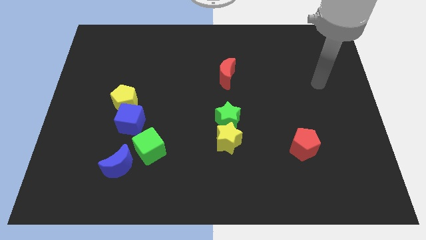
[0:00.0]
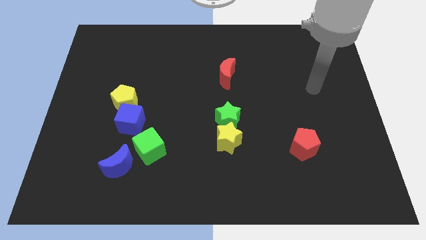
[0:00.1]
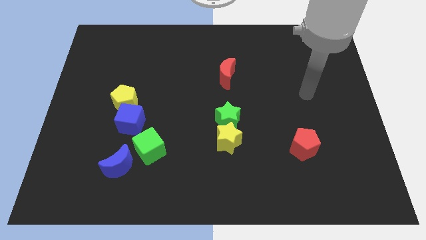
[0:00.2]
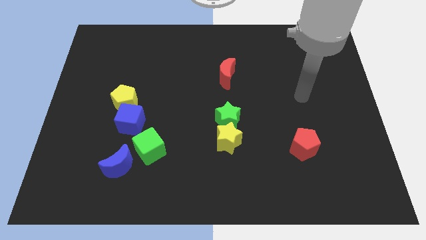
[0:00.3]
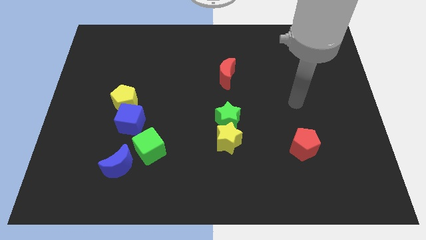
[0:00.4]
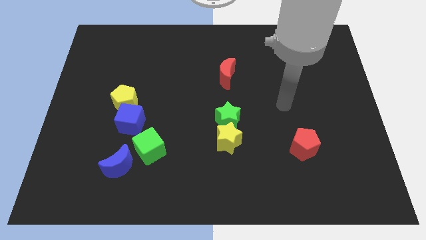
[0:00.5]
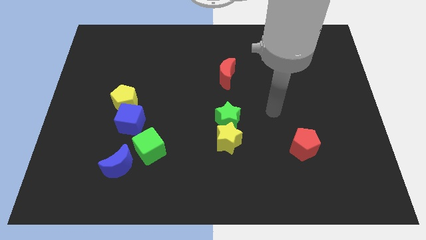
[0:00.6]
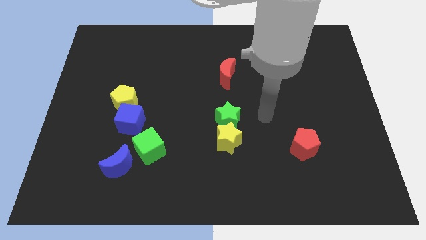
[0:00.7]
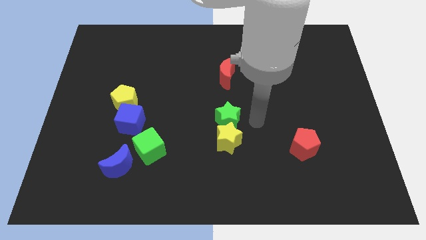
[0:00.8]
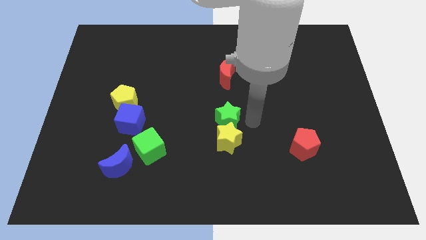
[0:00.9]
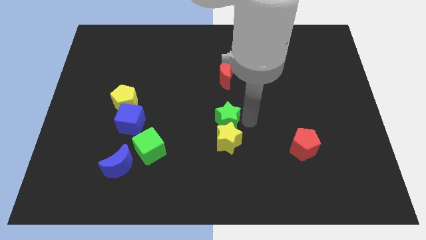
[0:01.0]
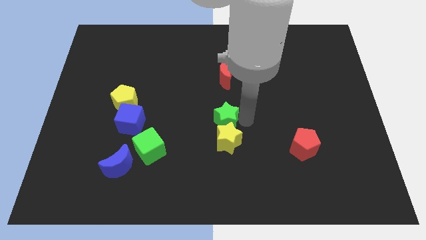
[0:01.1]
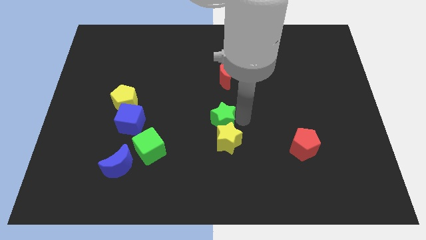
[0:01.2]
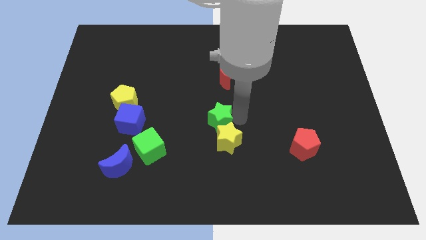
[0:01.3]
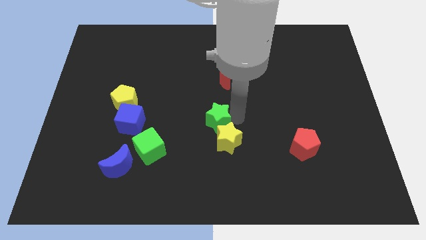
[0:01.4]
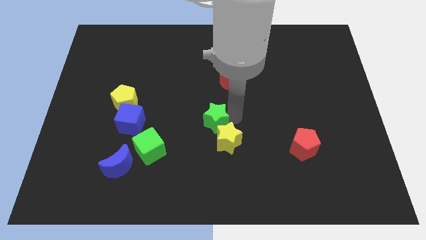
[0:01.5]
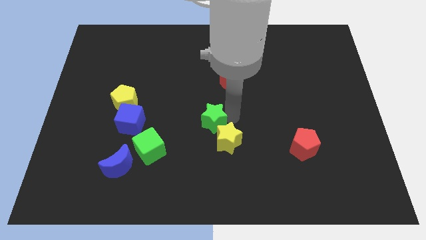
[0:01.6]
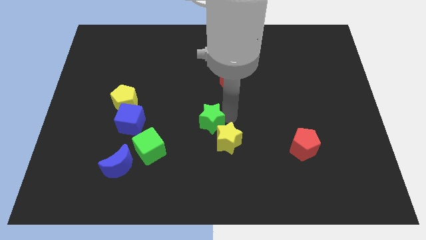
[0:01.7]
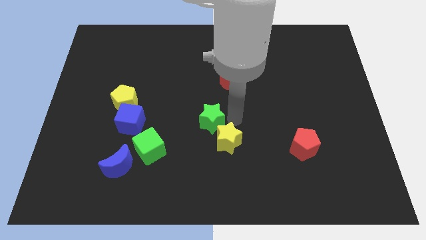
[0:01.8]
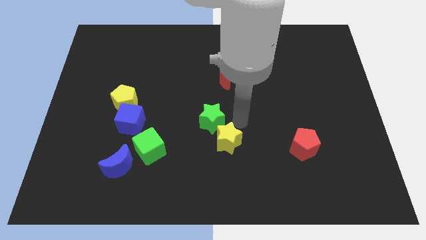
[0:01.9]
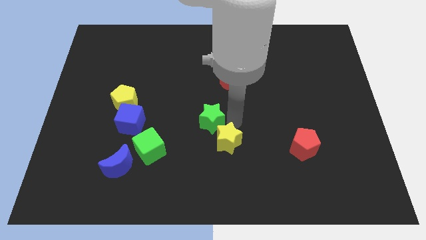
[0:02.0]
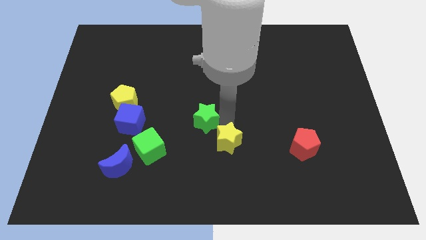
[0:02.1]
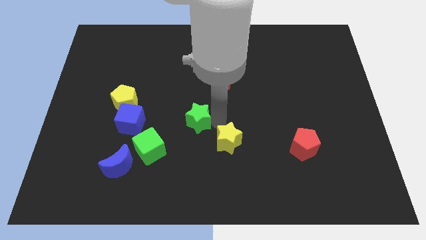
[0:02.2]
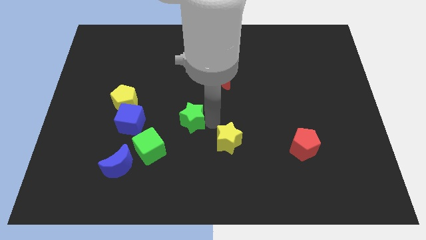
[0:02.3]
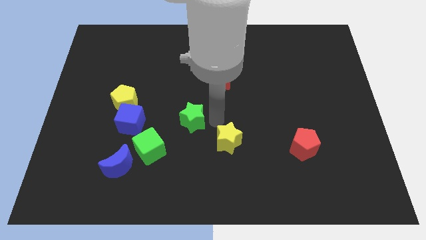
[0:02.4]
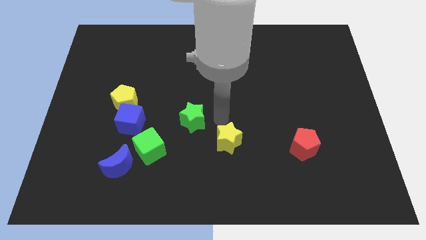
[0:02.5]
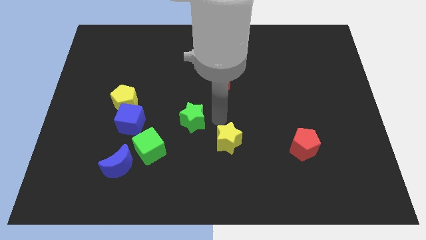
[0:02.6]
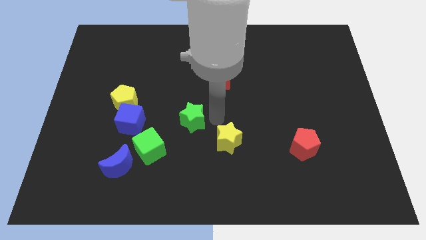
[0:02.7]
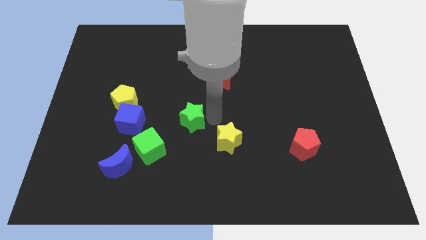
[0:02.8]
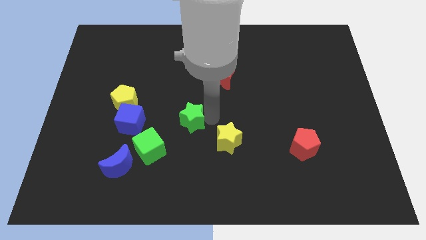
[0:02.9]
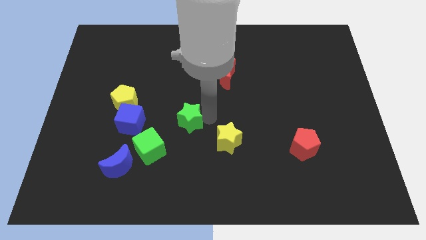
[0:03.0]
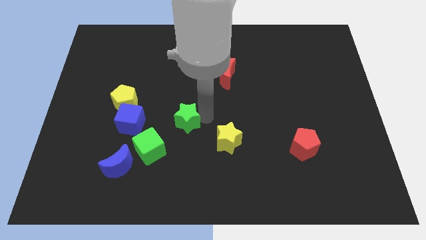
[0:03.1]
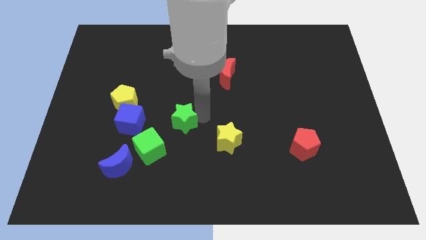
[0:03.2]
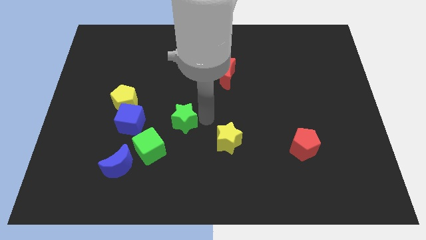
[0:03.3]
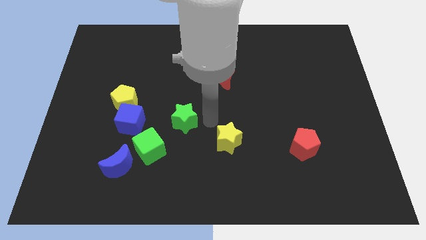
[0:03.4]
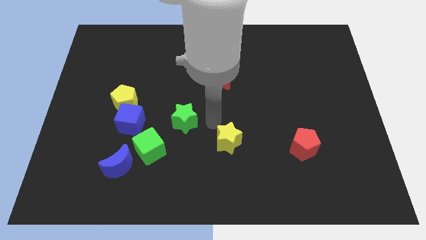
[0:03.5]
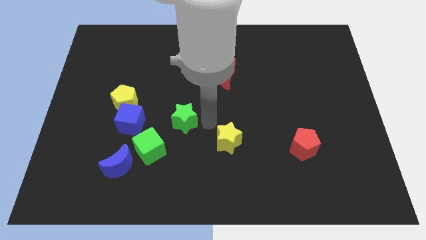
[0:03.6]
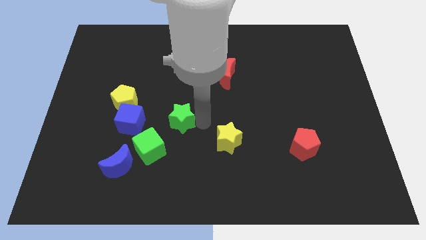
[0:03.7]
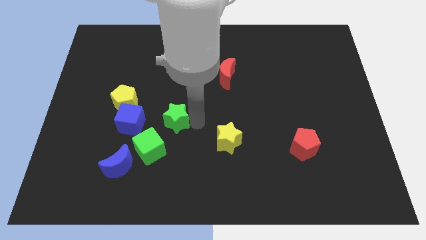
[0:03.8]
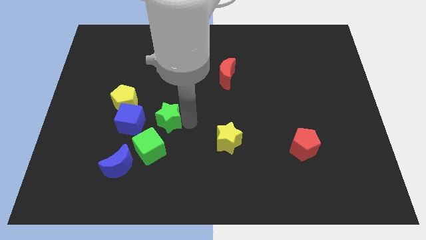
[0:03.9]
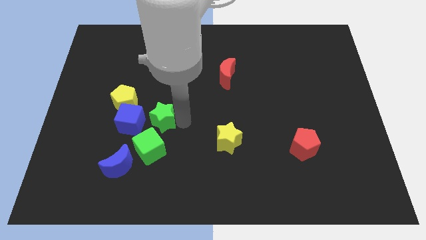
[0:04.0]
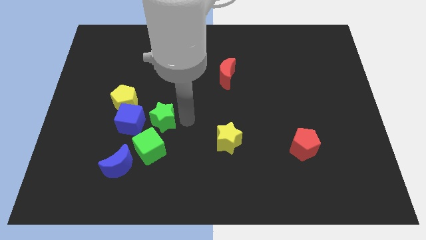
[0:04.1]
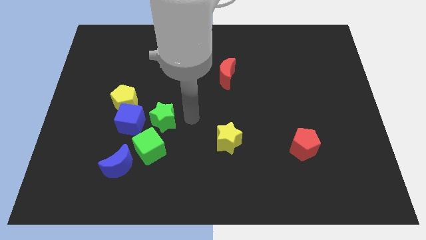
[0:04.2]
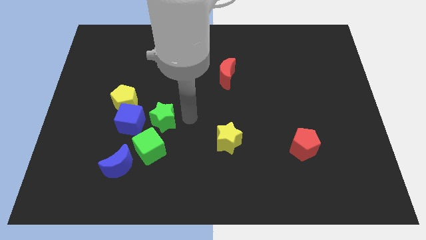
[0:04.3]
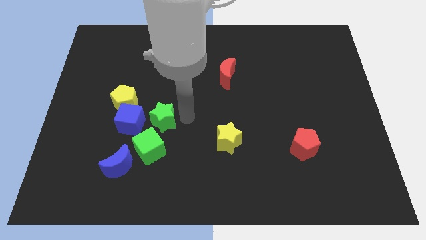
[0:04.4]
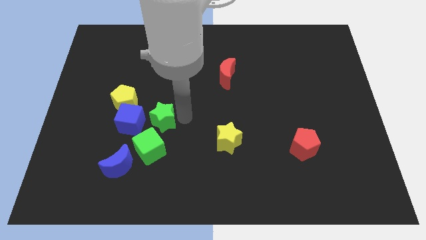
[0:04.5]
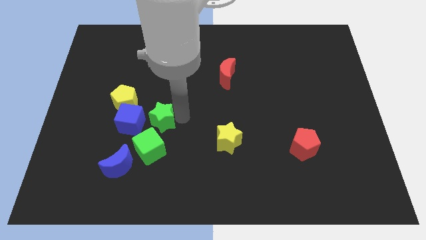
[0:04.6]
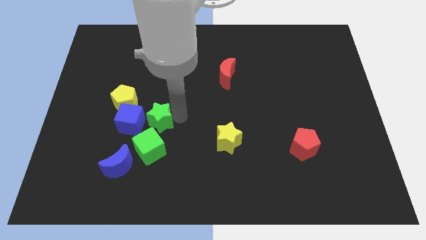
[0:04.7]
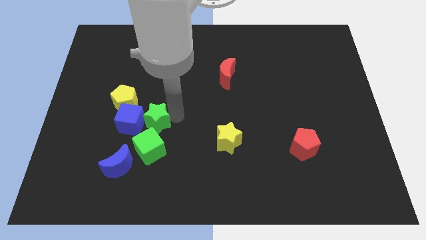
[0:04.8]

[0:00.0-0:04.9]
push the green star close to the blue cube

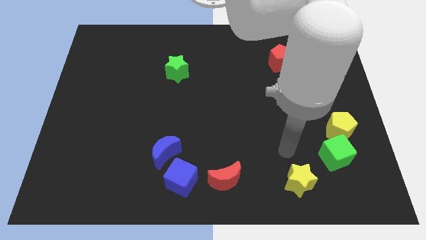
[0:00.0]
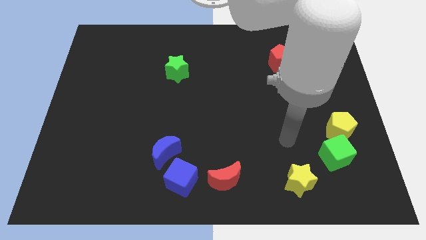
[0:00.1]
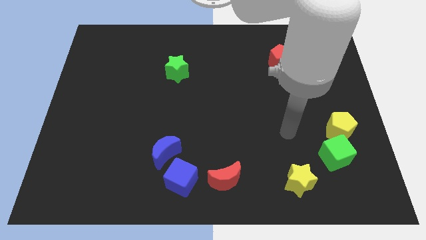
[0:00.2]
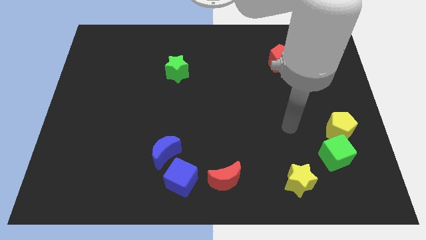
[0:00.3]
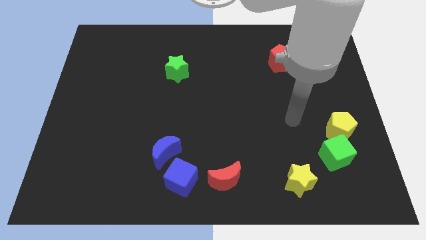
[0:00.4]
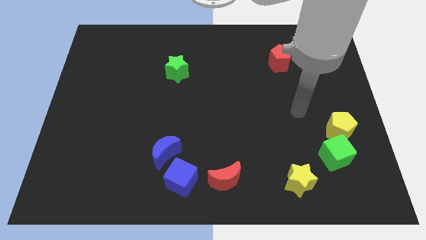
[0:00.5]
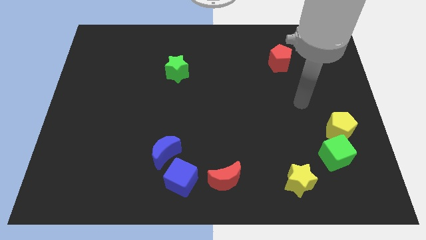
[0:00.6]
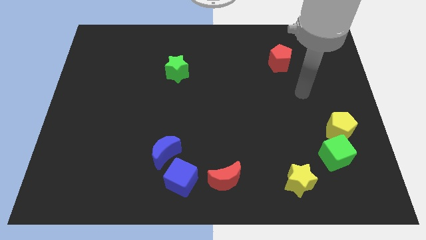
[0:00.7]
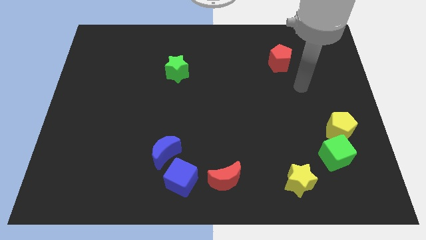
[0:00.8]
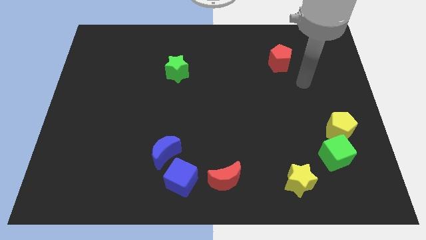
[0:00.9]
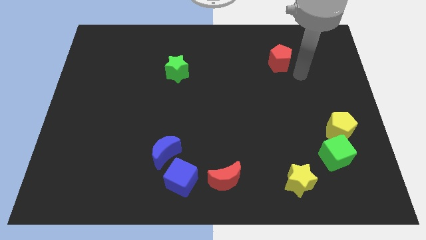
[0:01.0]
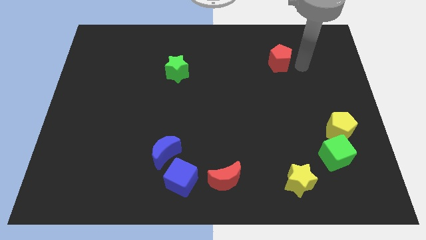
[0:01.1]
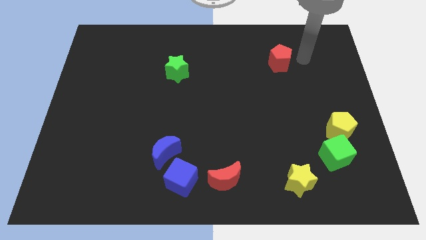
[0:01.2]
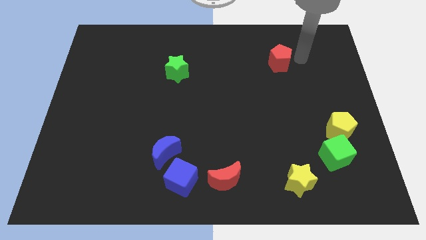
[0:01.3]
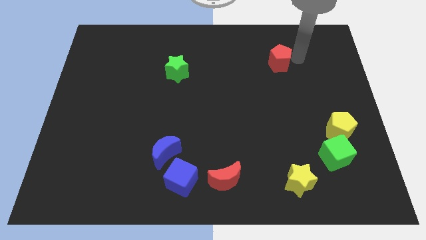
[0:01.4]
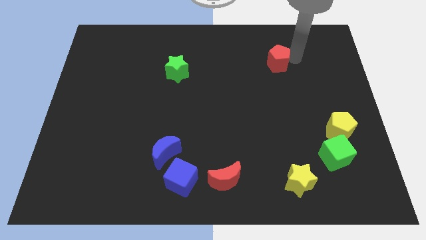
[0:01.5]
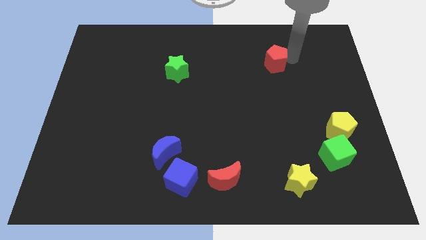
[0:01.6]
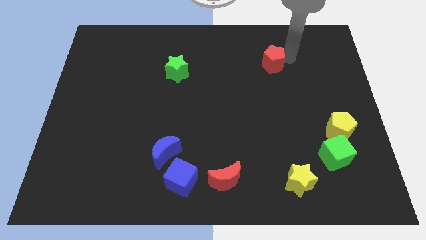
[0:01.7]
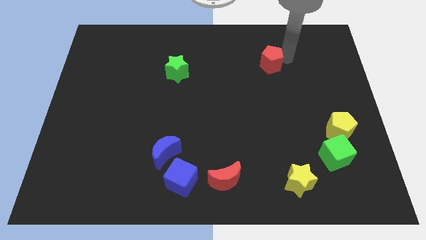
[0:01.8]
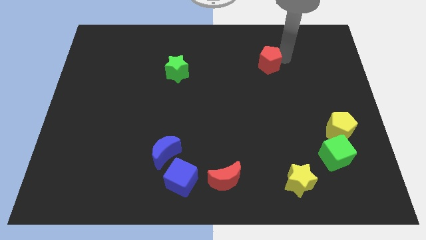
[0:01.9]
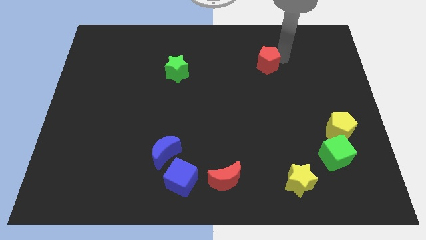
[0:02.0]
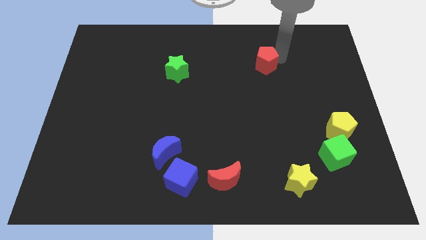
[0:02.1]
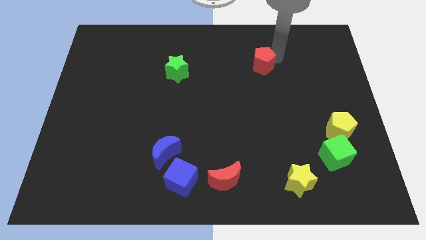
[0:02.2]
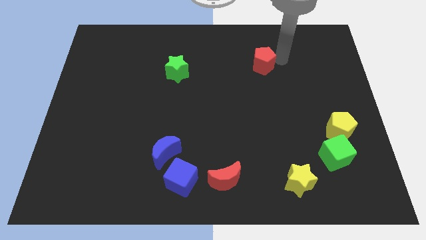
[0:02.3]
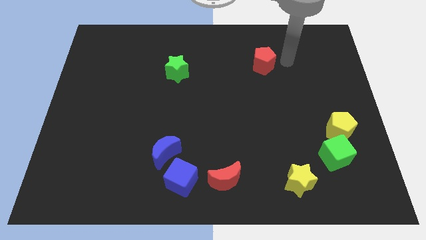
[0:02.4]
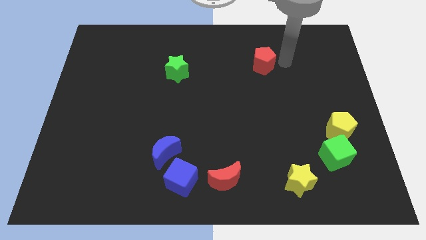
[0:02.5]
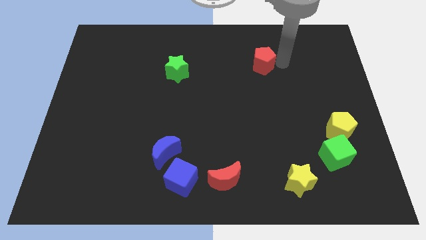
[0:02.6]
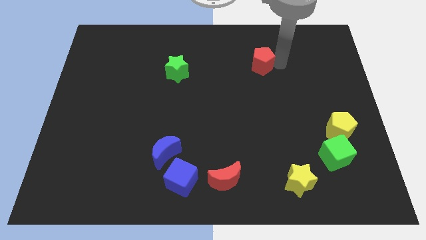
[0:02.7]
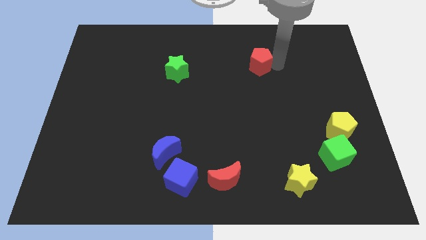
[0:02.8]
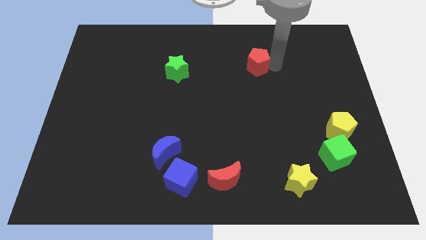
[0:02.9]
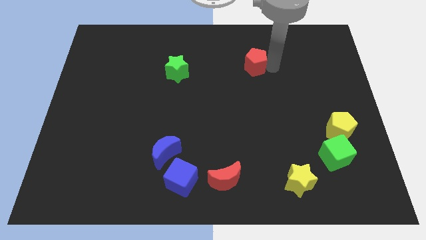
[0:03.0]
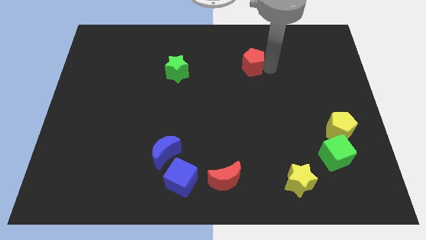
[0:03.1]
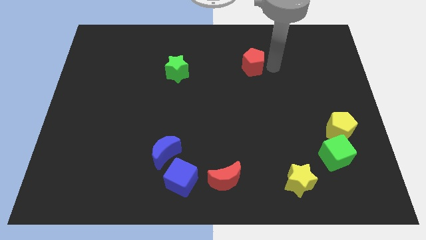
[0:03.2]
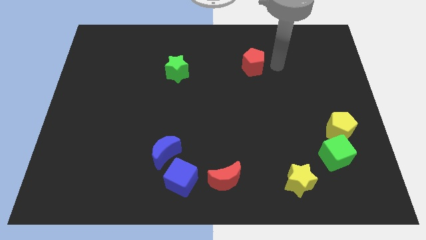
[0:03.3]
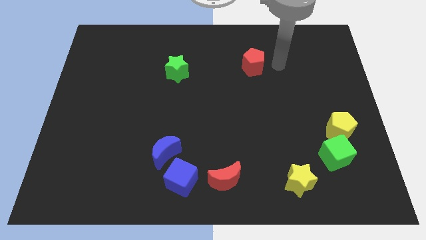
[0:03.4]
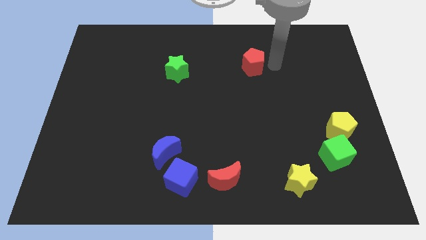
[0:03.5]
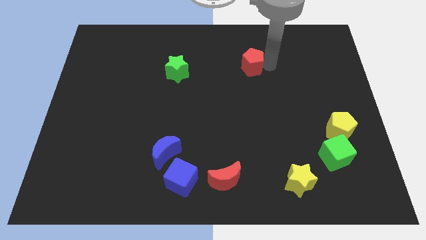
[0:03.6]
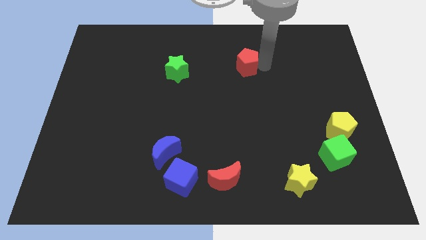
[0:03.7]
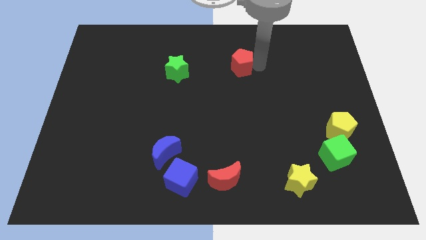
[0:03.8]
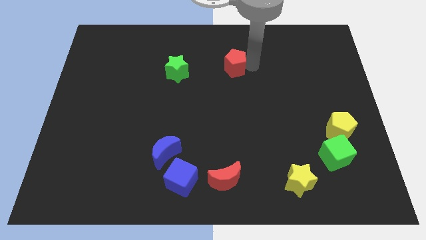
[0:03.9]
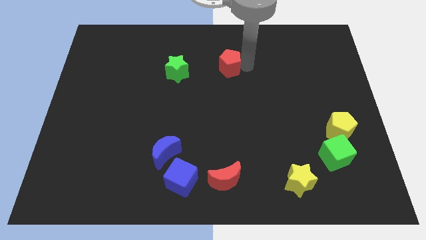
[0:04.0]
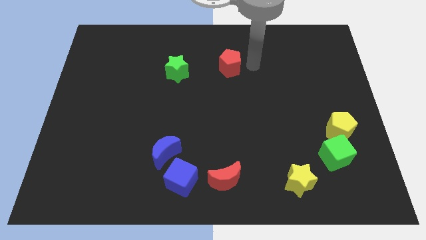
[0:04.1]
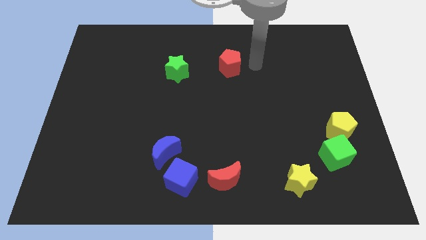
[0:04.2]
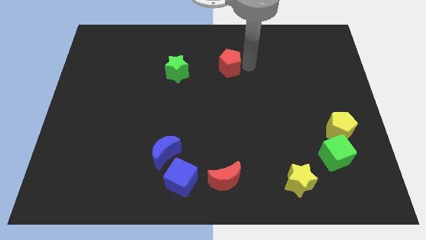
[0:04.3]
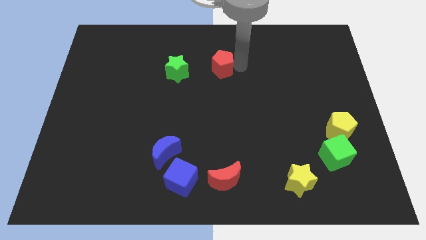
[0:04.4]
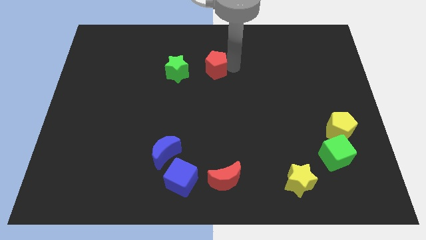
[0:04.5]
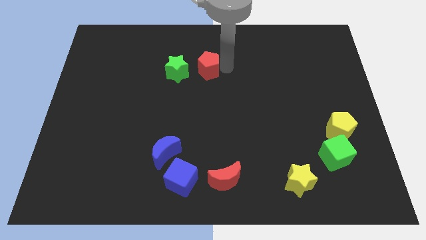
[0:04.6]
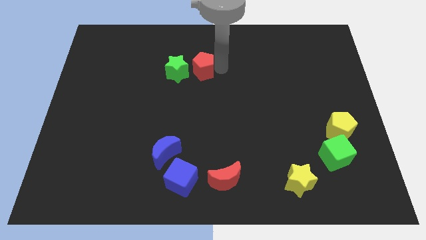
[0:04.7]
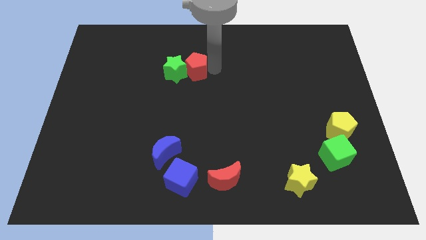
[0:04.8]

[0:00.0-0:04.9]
move the red pentagon to the green star
